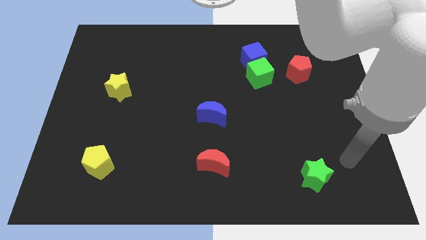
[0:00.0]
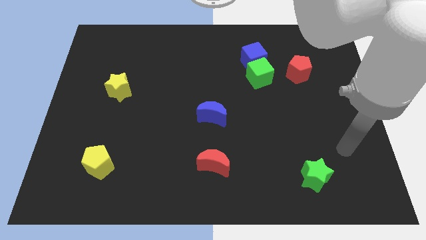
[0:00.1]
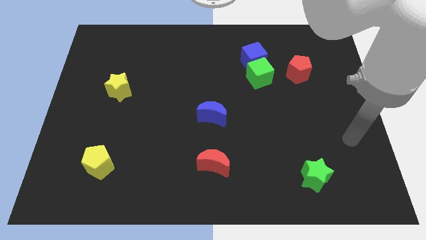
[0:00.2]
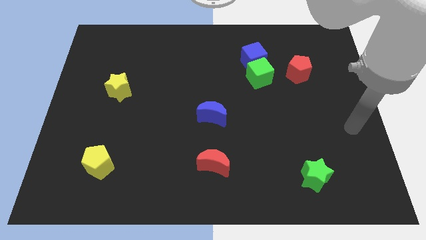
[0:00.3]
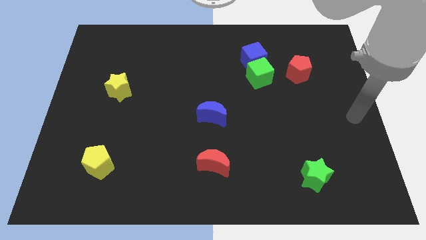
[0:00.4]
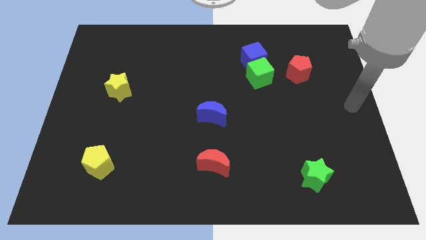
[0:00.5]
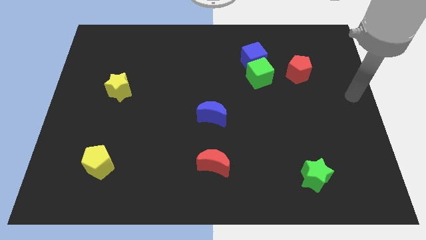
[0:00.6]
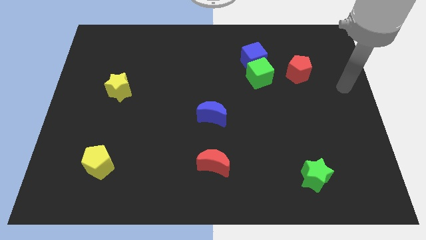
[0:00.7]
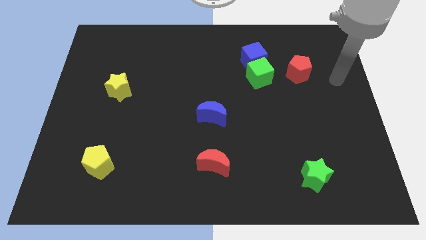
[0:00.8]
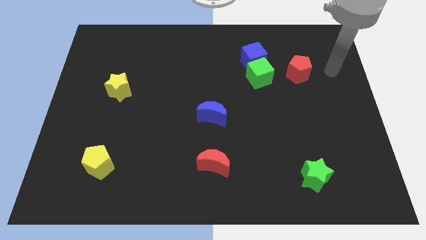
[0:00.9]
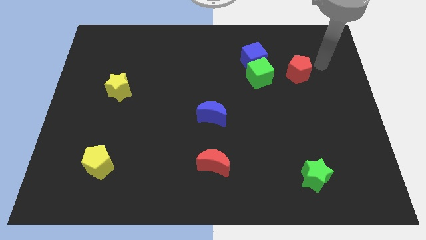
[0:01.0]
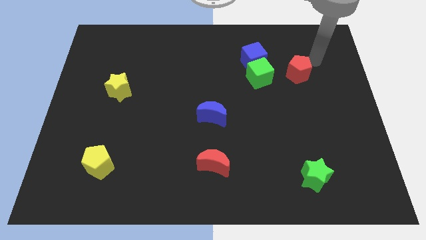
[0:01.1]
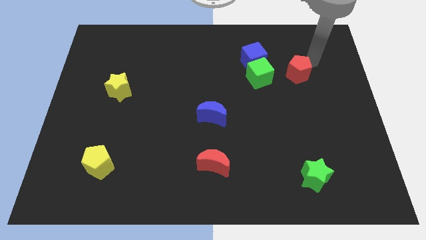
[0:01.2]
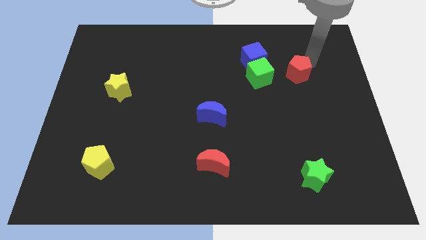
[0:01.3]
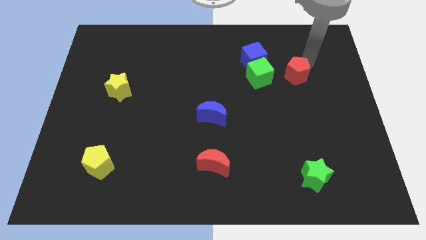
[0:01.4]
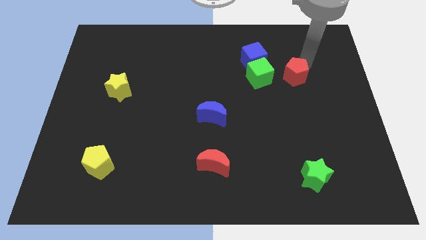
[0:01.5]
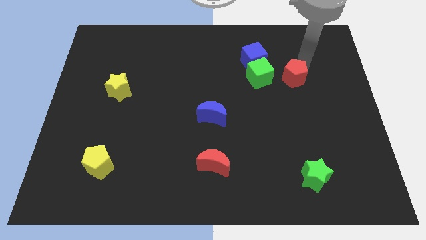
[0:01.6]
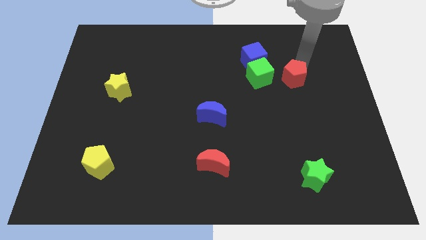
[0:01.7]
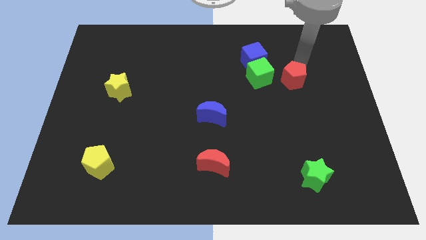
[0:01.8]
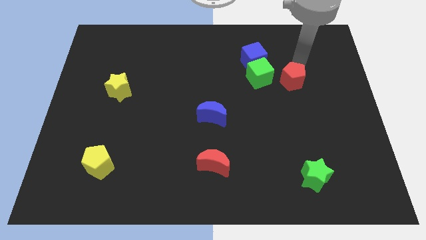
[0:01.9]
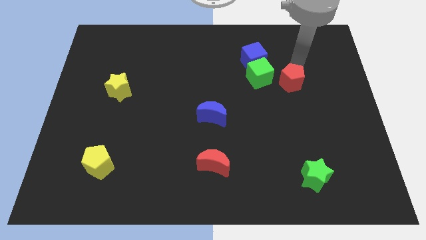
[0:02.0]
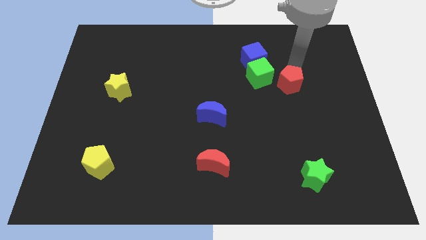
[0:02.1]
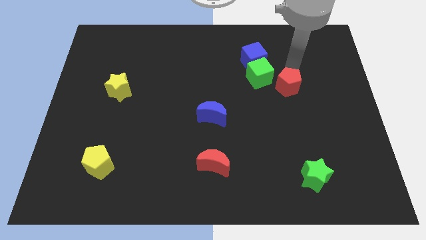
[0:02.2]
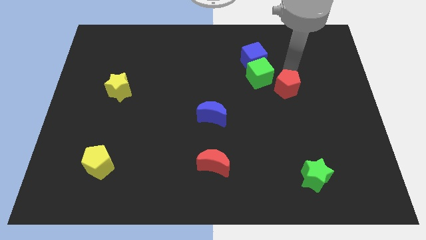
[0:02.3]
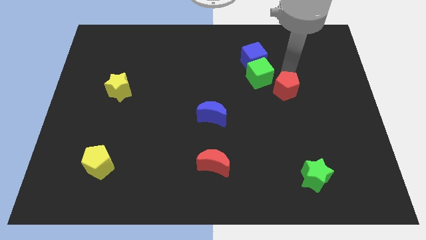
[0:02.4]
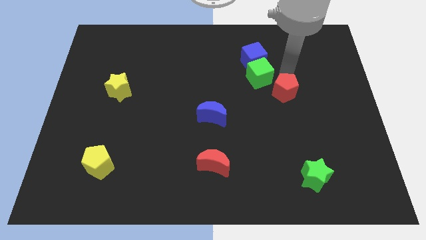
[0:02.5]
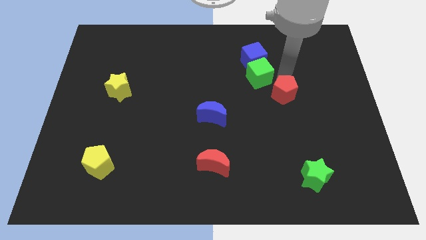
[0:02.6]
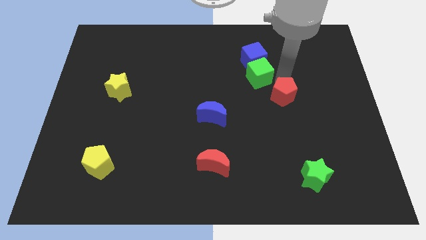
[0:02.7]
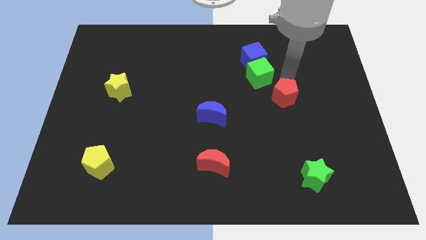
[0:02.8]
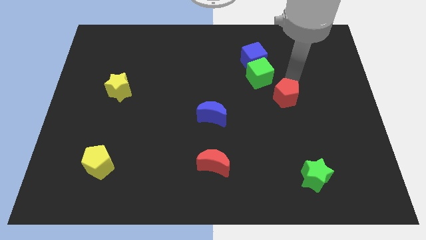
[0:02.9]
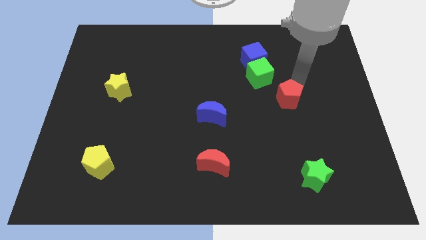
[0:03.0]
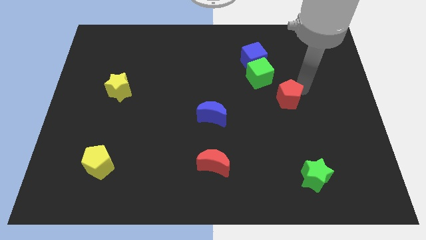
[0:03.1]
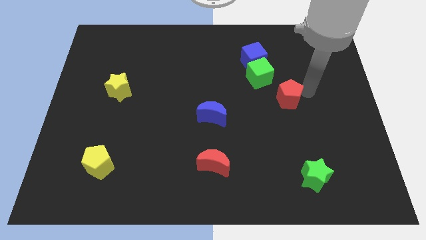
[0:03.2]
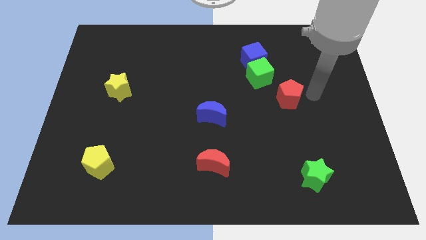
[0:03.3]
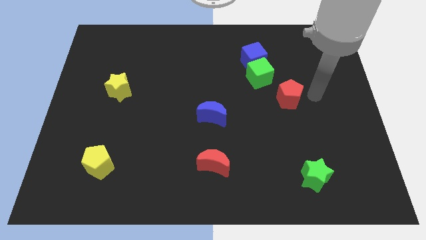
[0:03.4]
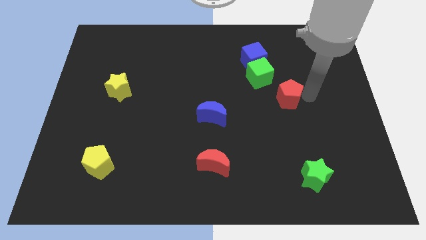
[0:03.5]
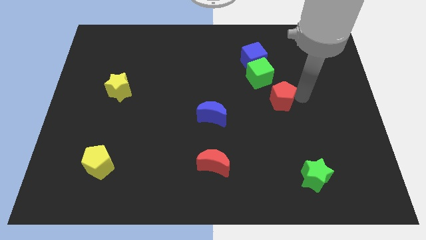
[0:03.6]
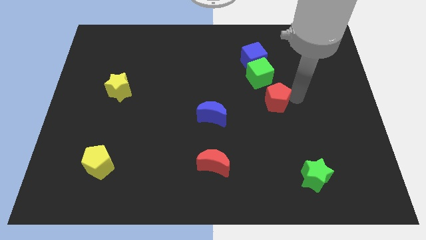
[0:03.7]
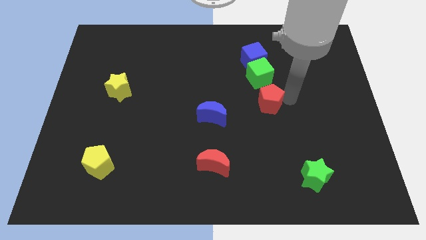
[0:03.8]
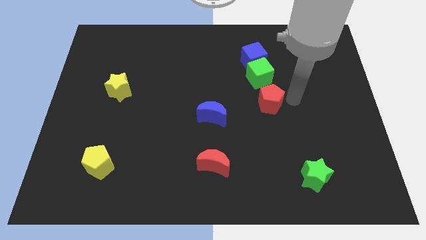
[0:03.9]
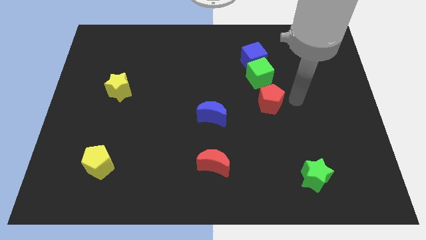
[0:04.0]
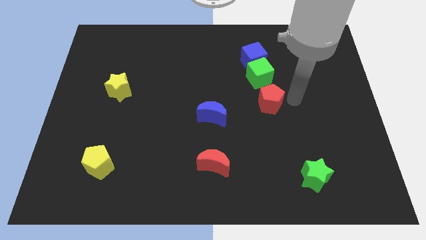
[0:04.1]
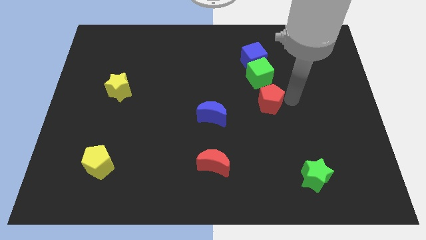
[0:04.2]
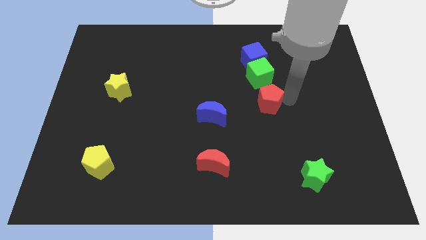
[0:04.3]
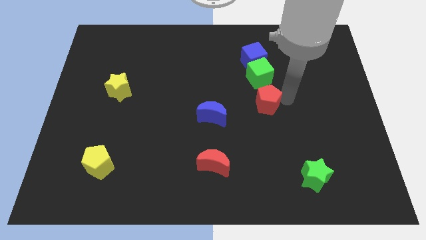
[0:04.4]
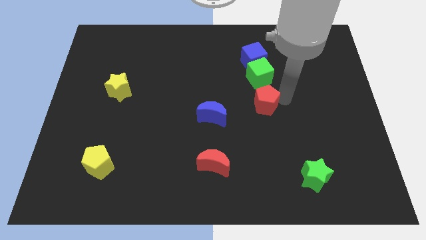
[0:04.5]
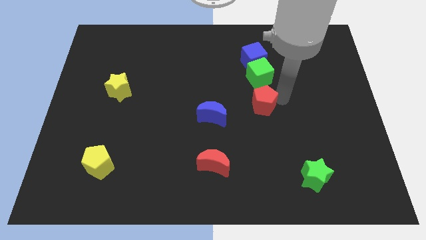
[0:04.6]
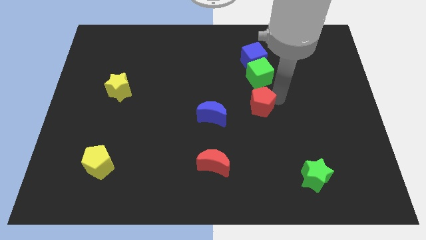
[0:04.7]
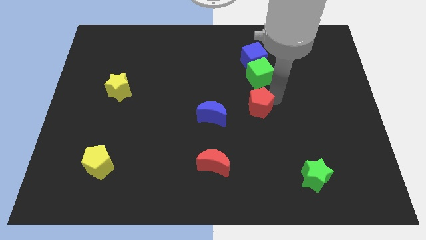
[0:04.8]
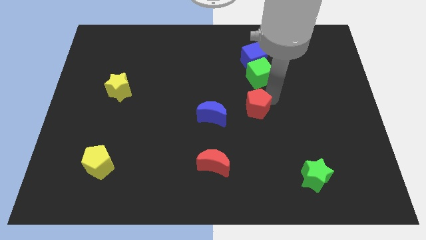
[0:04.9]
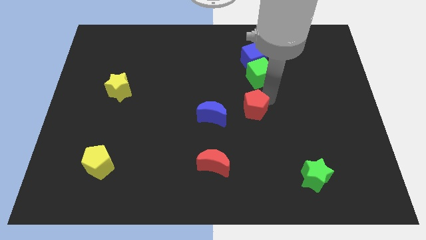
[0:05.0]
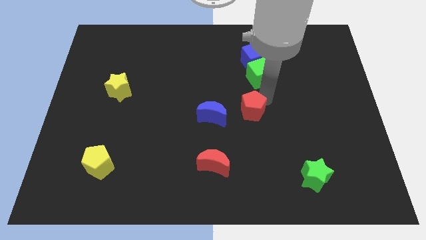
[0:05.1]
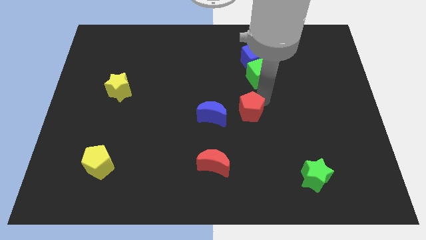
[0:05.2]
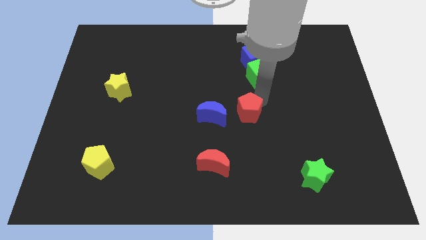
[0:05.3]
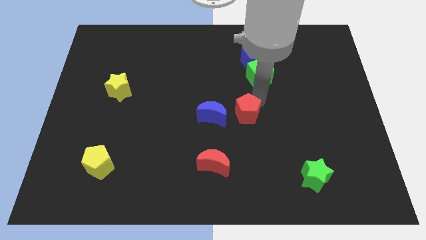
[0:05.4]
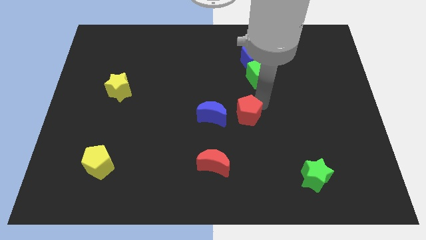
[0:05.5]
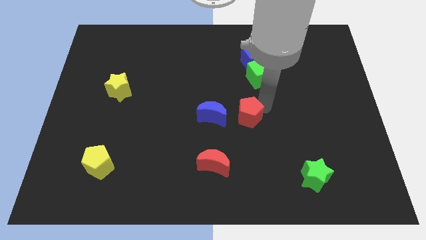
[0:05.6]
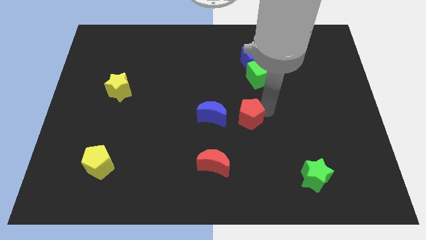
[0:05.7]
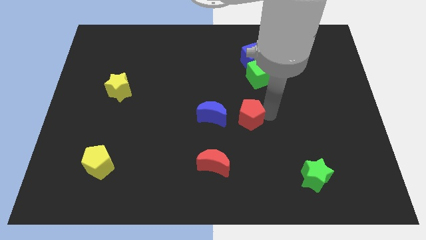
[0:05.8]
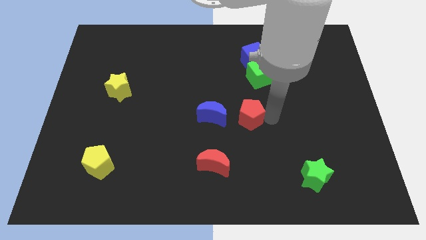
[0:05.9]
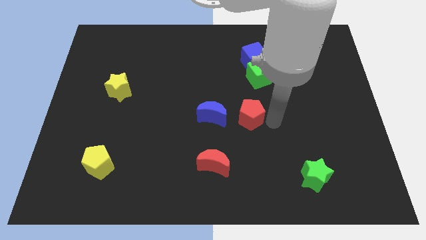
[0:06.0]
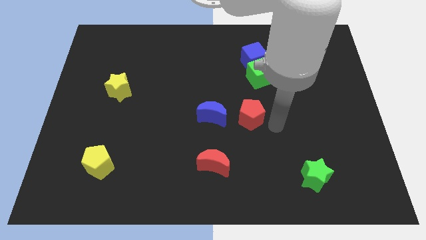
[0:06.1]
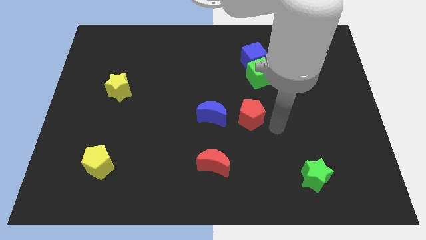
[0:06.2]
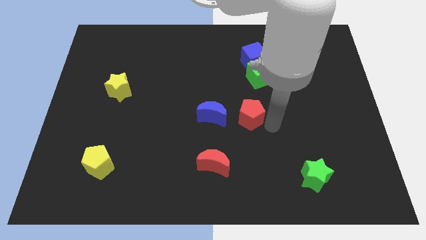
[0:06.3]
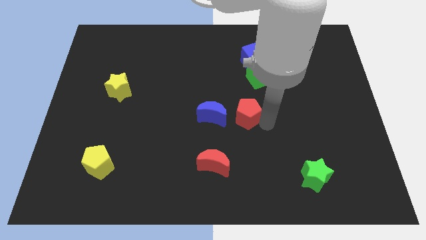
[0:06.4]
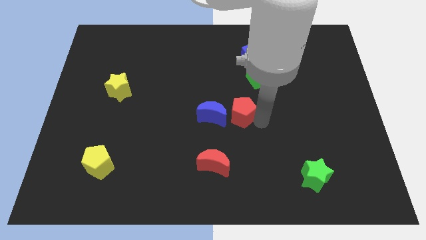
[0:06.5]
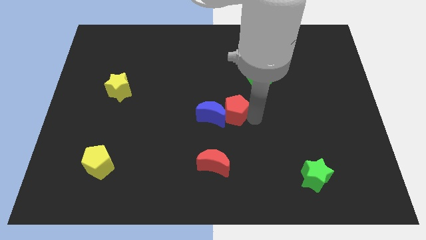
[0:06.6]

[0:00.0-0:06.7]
put the red pentagon close to the blue moon

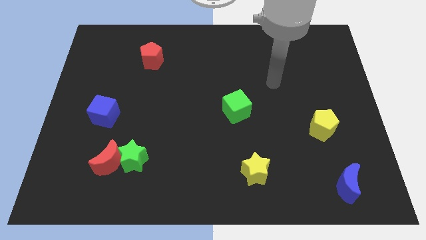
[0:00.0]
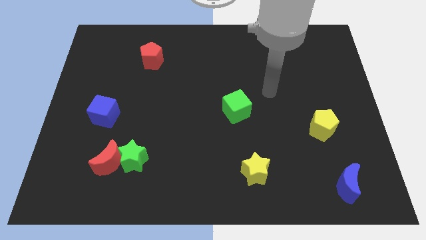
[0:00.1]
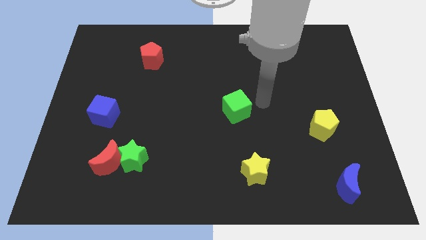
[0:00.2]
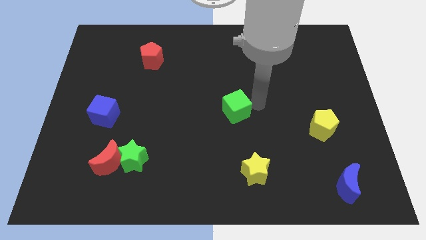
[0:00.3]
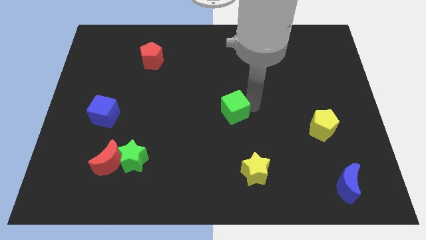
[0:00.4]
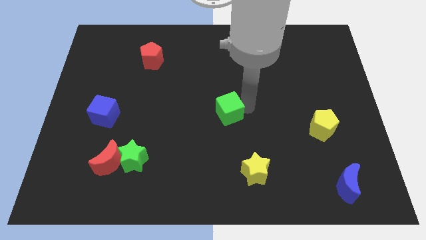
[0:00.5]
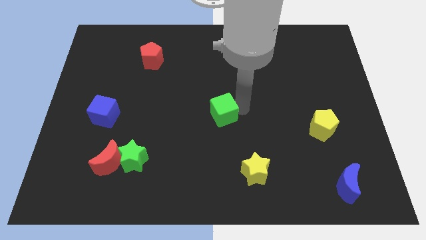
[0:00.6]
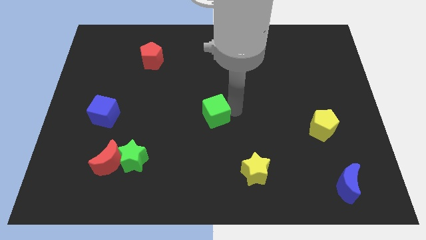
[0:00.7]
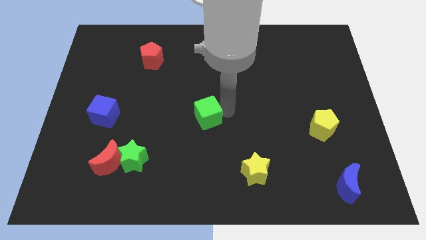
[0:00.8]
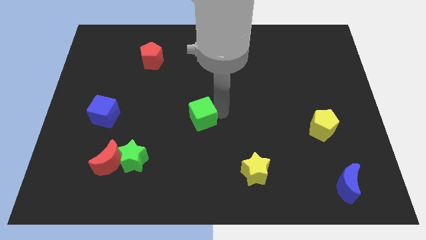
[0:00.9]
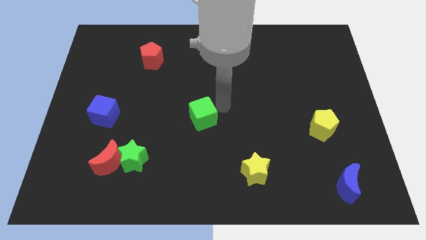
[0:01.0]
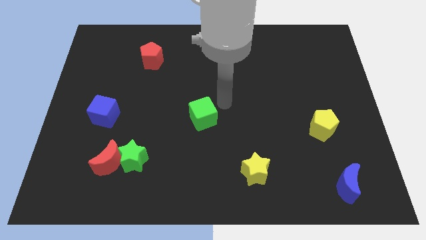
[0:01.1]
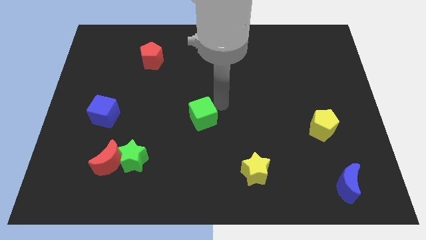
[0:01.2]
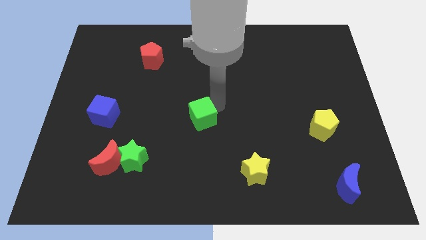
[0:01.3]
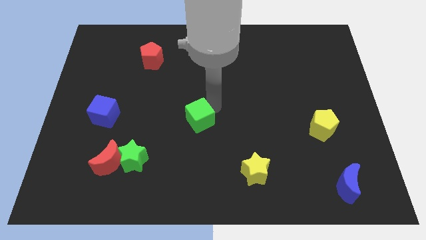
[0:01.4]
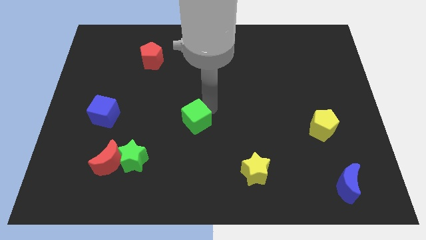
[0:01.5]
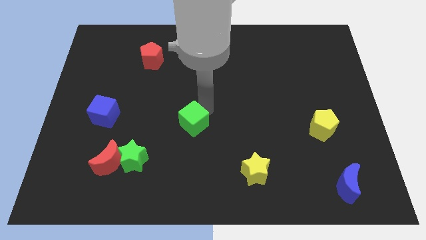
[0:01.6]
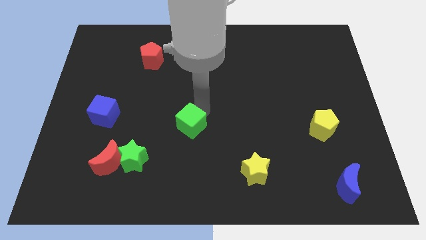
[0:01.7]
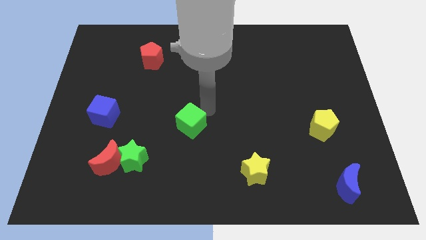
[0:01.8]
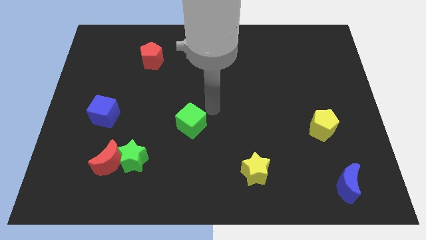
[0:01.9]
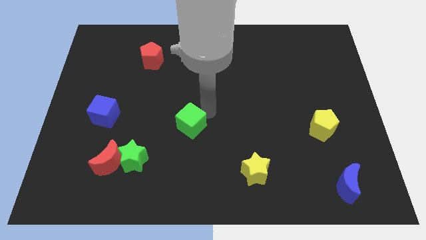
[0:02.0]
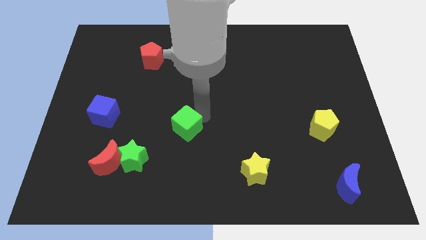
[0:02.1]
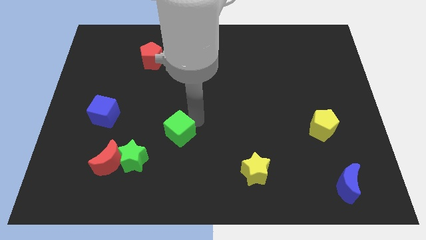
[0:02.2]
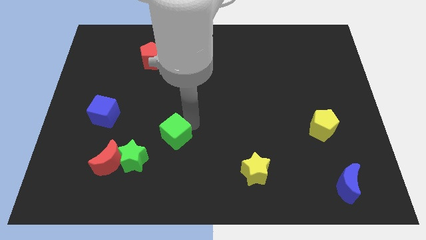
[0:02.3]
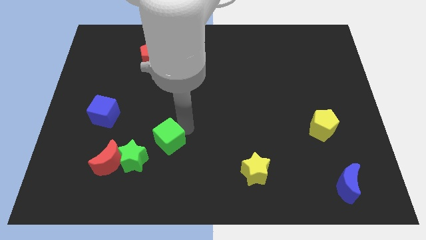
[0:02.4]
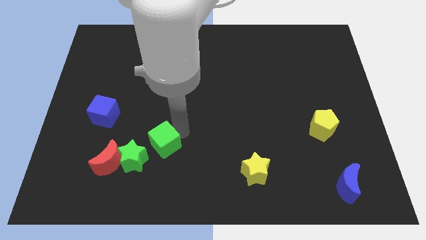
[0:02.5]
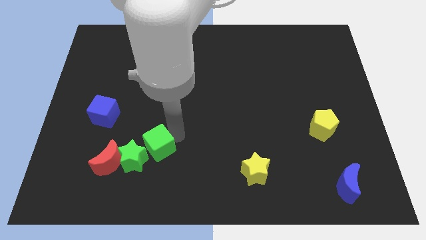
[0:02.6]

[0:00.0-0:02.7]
move the green cube next to the green star
